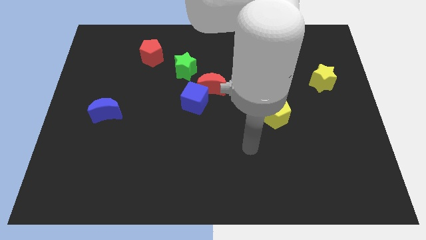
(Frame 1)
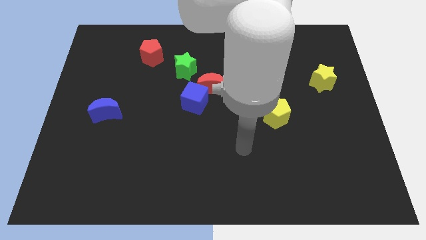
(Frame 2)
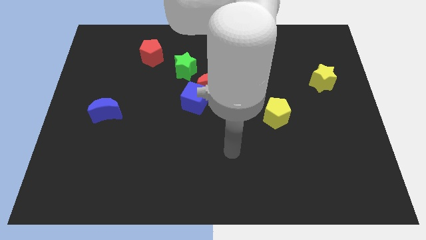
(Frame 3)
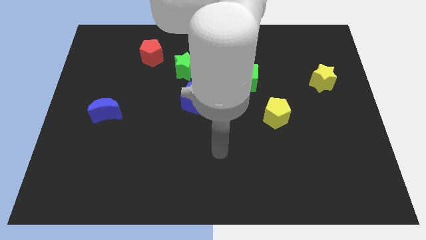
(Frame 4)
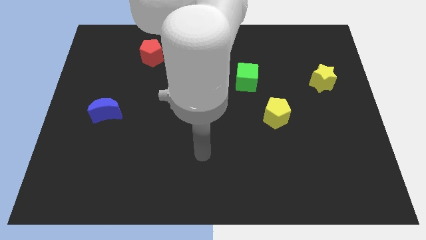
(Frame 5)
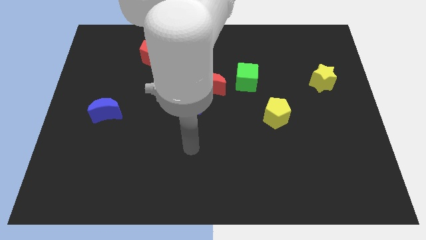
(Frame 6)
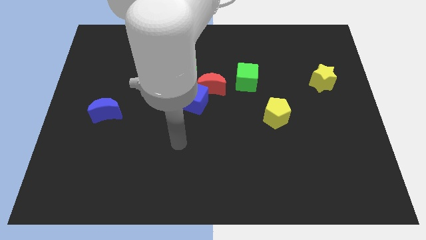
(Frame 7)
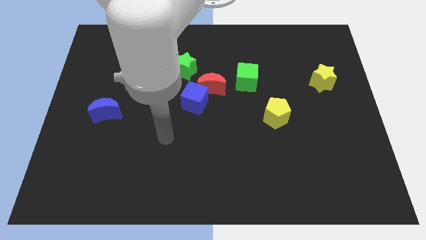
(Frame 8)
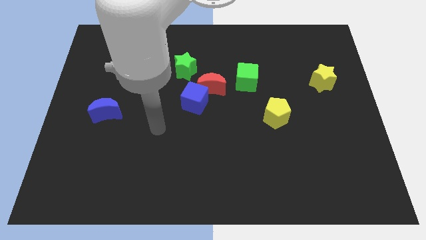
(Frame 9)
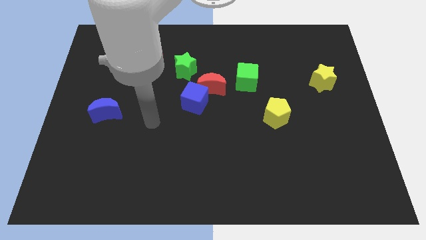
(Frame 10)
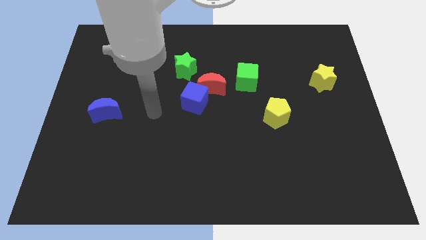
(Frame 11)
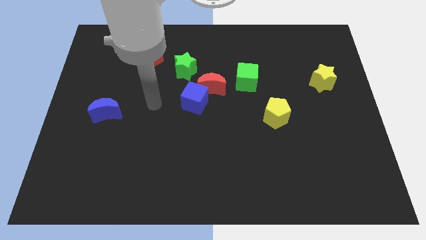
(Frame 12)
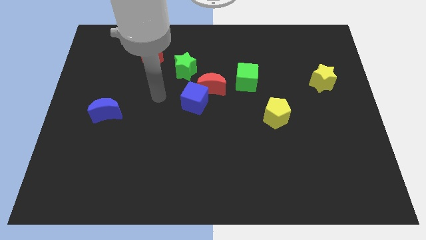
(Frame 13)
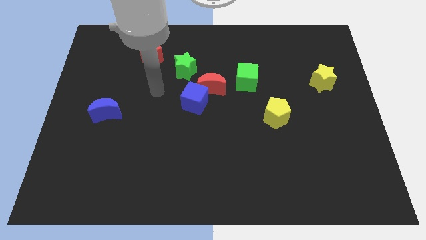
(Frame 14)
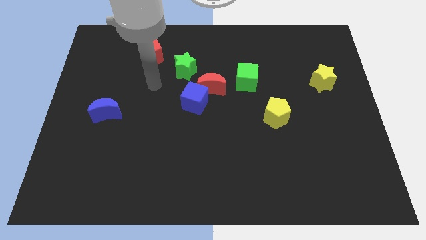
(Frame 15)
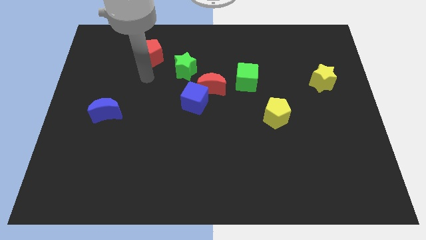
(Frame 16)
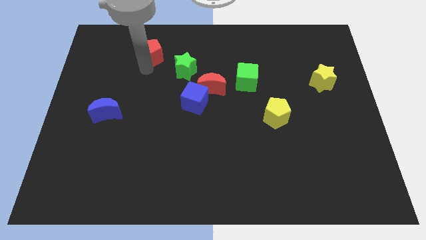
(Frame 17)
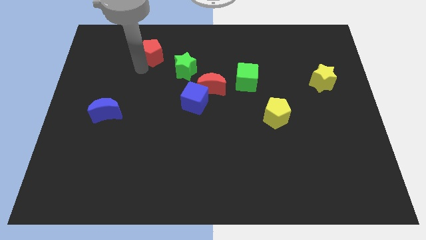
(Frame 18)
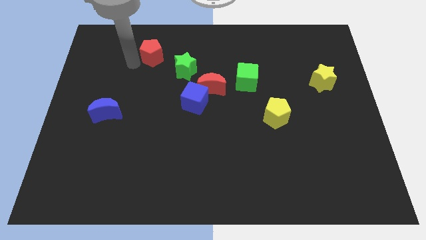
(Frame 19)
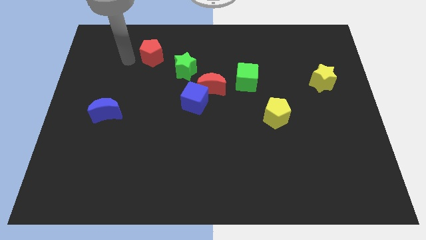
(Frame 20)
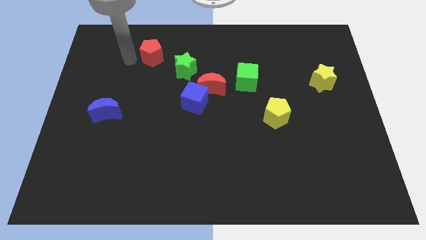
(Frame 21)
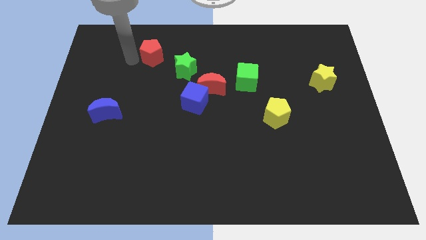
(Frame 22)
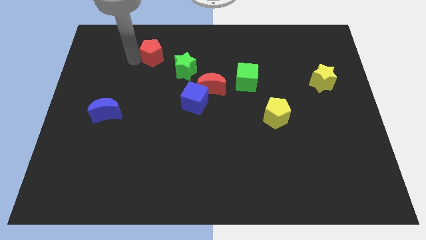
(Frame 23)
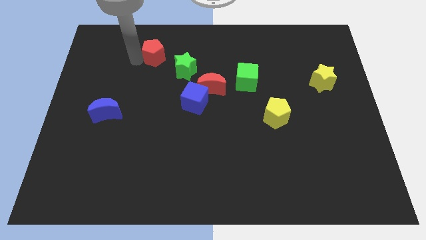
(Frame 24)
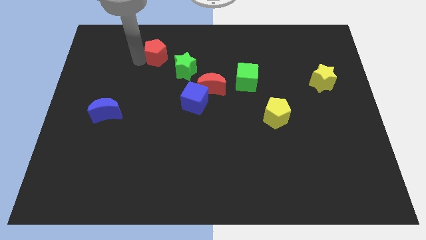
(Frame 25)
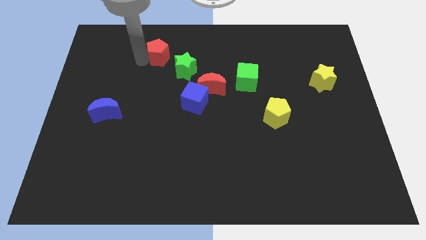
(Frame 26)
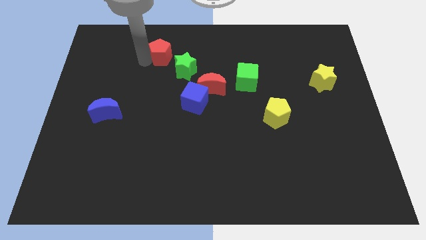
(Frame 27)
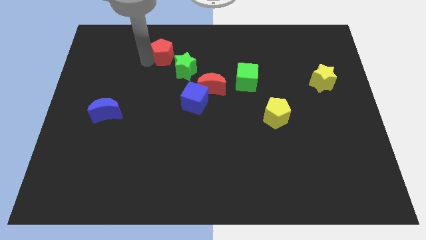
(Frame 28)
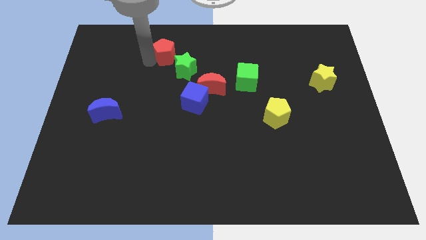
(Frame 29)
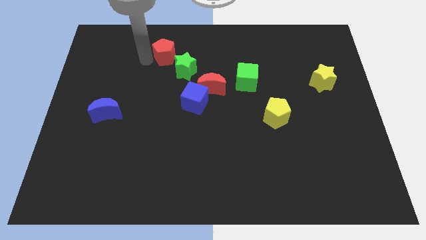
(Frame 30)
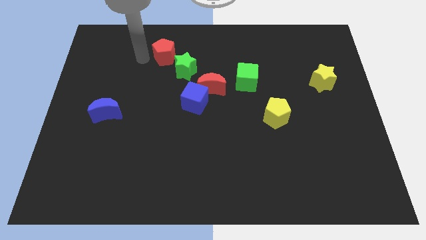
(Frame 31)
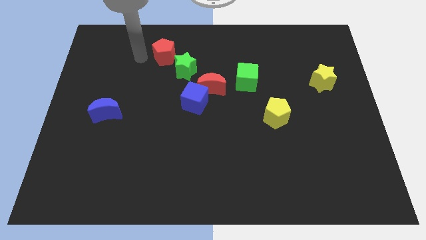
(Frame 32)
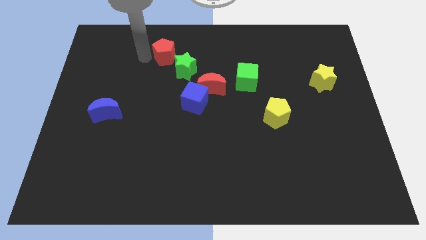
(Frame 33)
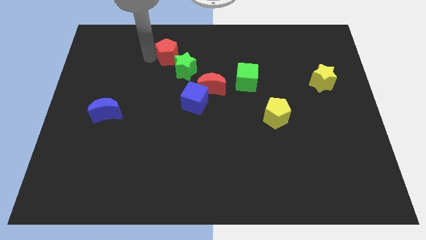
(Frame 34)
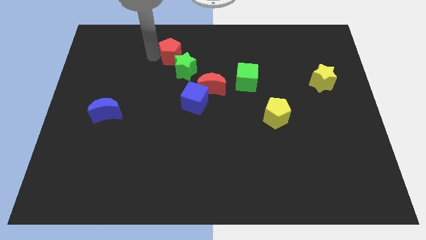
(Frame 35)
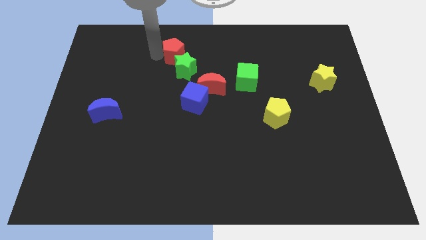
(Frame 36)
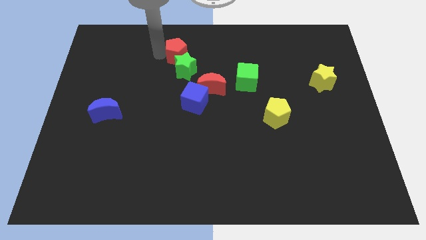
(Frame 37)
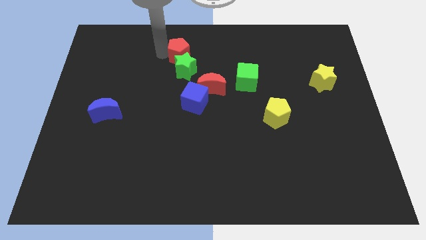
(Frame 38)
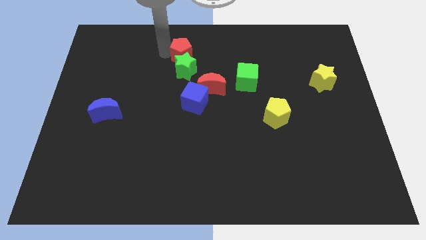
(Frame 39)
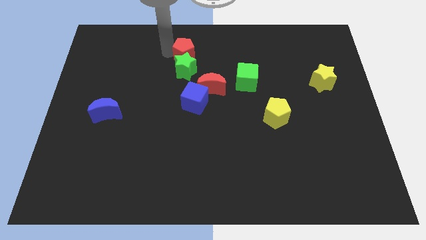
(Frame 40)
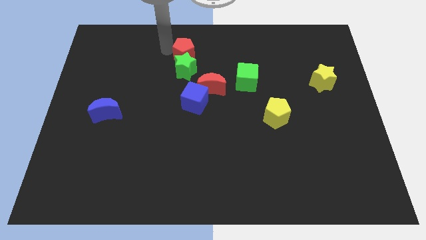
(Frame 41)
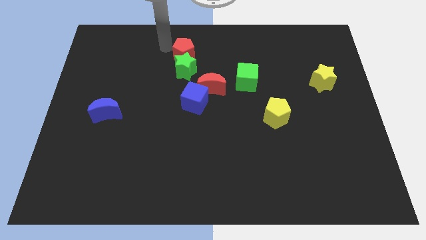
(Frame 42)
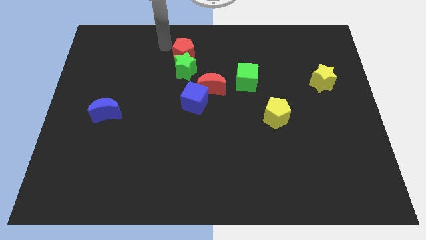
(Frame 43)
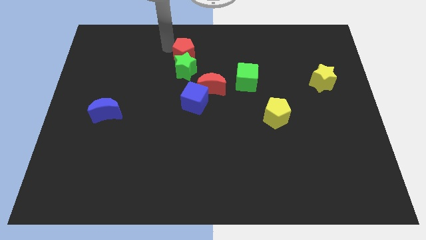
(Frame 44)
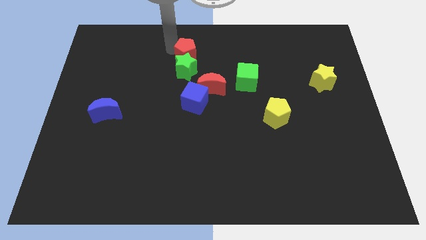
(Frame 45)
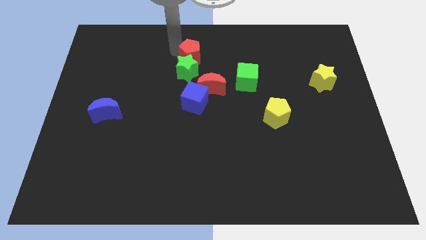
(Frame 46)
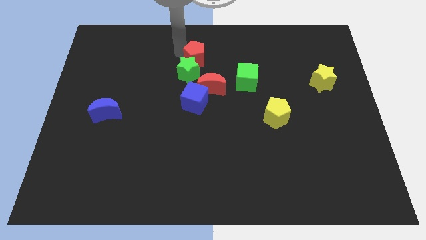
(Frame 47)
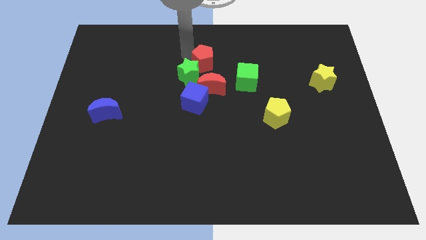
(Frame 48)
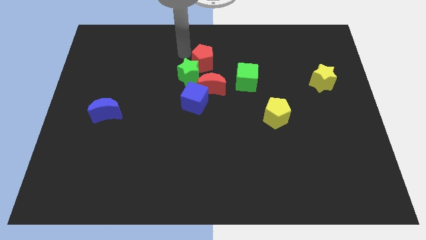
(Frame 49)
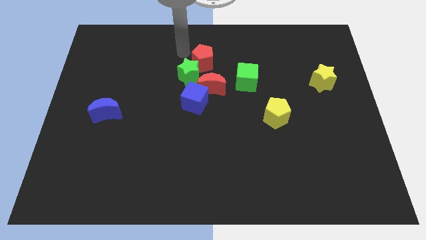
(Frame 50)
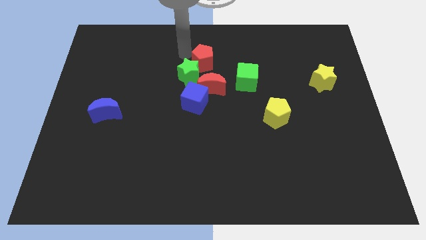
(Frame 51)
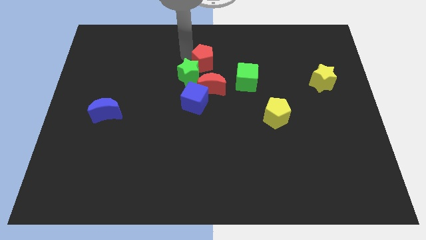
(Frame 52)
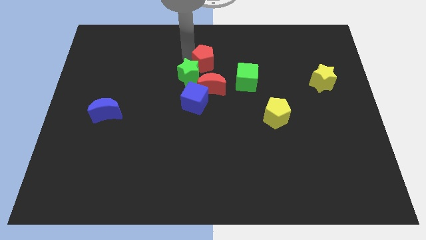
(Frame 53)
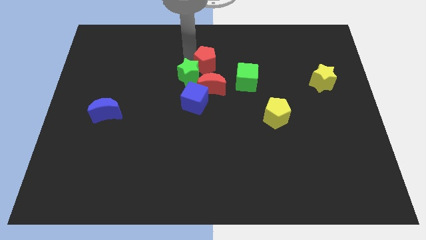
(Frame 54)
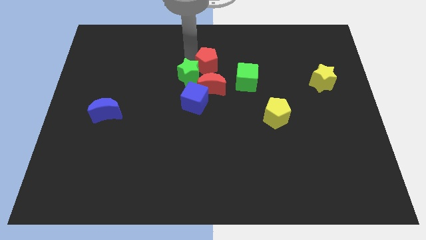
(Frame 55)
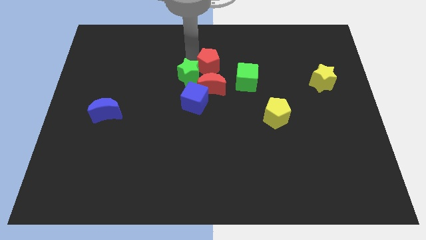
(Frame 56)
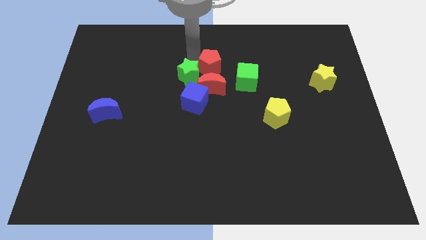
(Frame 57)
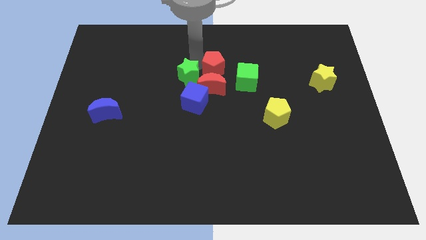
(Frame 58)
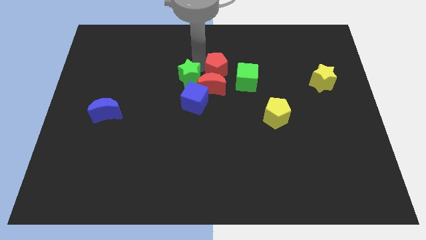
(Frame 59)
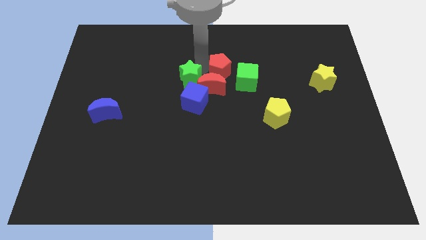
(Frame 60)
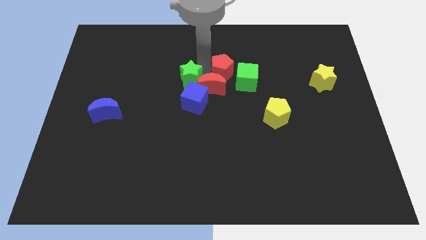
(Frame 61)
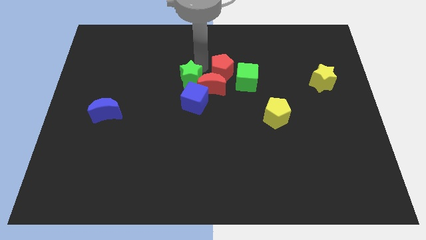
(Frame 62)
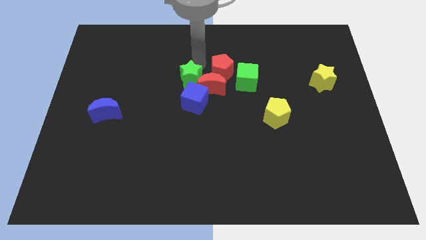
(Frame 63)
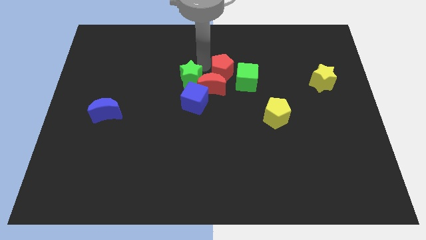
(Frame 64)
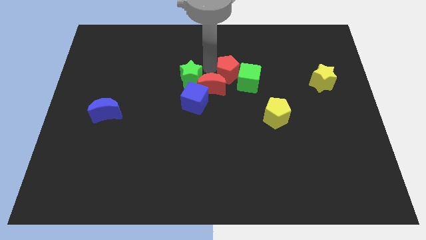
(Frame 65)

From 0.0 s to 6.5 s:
move the red pentagon towards the green cube
